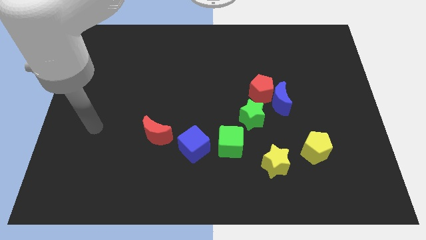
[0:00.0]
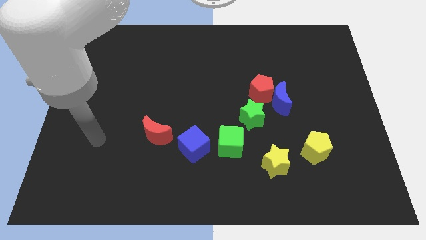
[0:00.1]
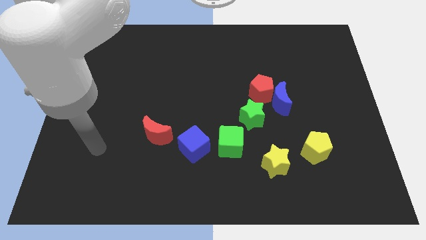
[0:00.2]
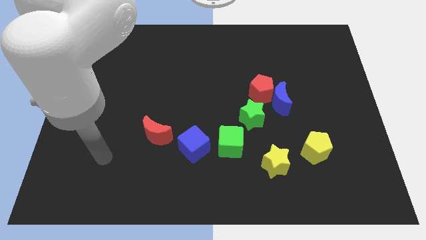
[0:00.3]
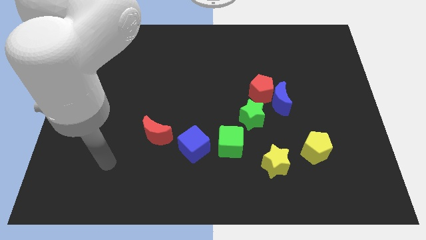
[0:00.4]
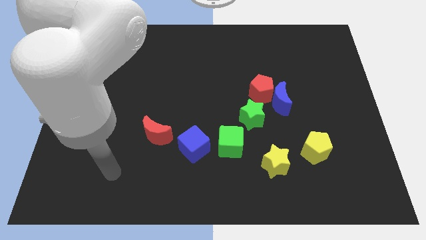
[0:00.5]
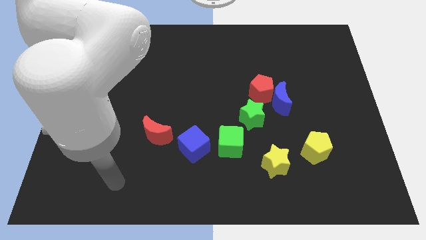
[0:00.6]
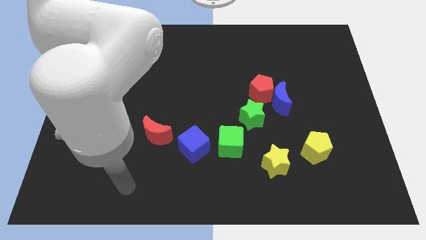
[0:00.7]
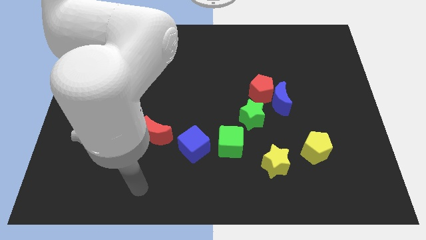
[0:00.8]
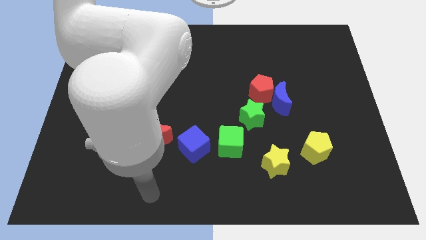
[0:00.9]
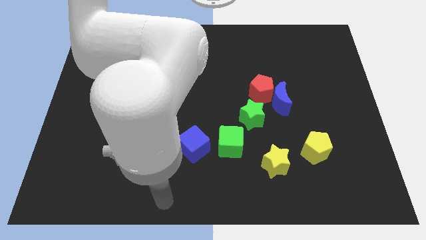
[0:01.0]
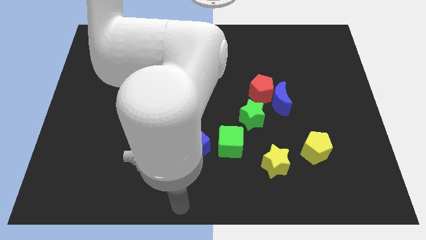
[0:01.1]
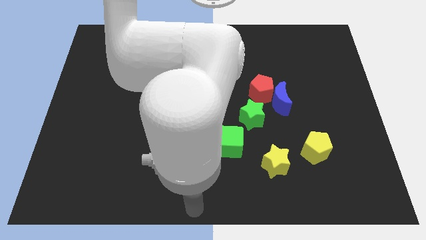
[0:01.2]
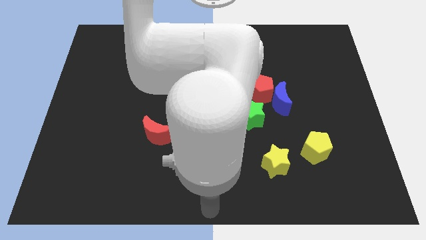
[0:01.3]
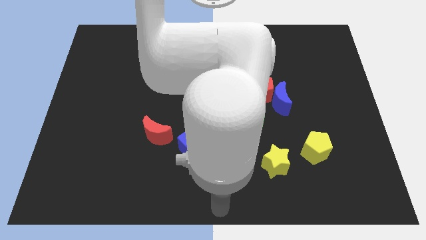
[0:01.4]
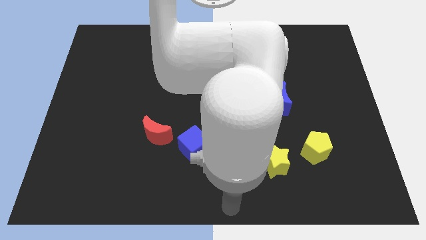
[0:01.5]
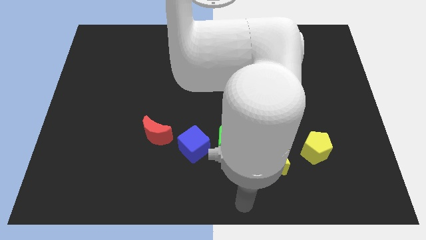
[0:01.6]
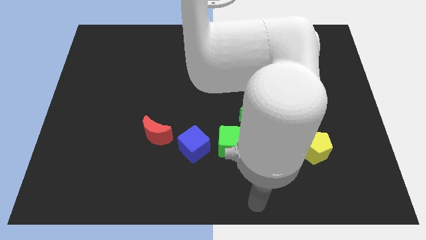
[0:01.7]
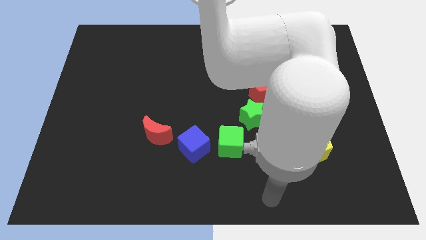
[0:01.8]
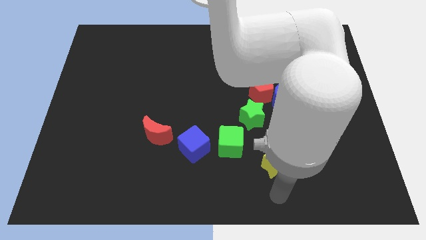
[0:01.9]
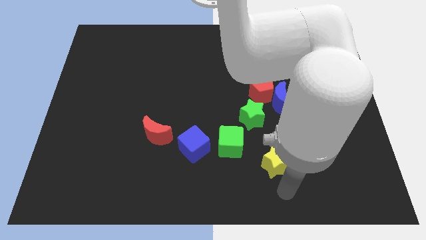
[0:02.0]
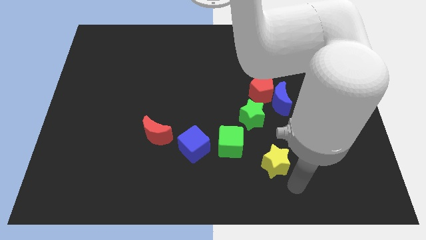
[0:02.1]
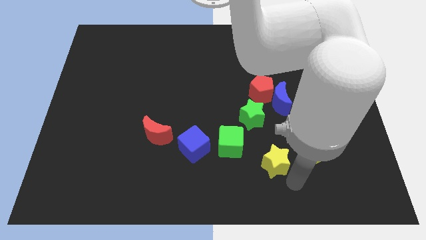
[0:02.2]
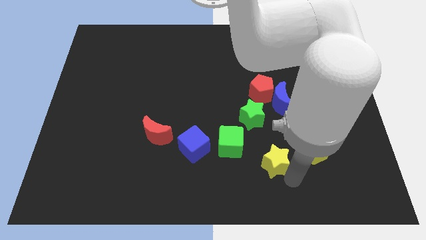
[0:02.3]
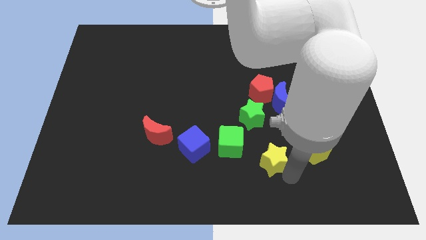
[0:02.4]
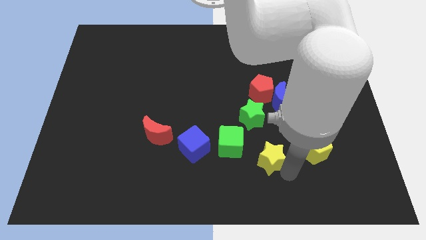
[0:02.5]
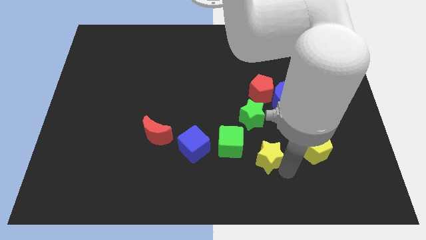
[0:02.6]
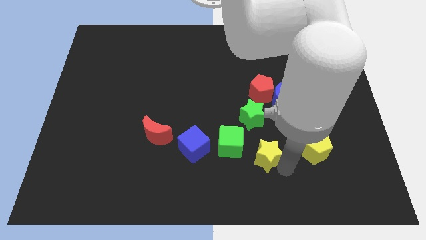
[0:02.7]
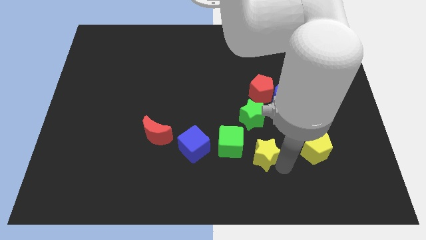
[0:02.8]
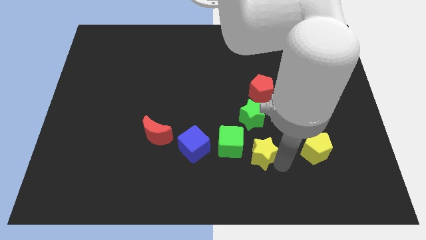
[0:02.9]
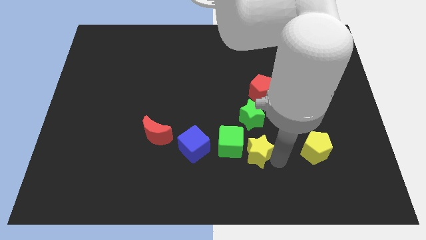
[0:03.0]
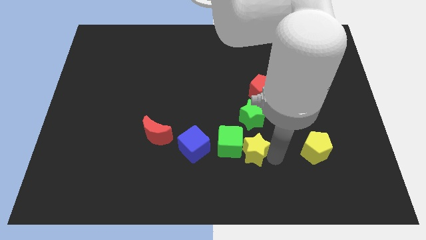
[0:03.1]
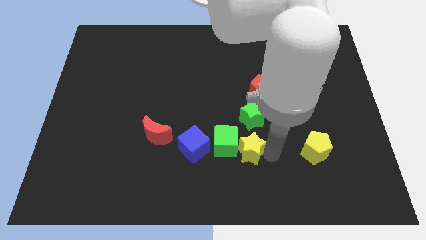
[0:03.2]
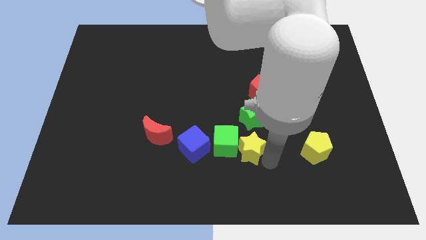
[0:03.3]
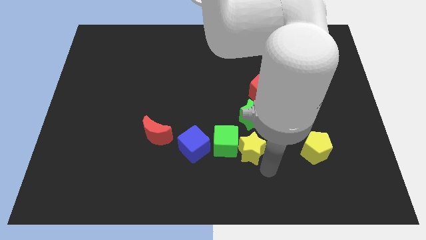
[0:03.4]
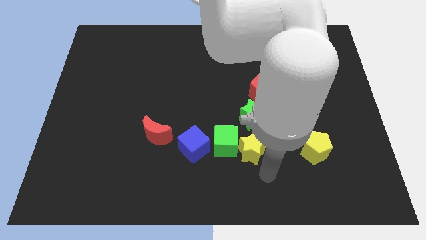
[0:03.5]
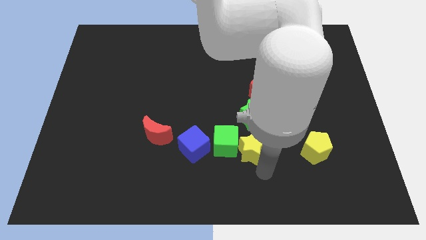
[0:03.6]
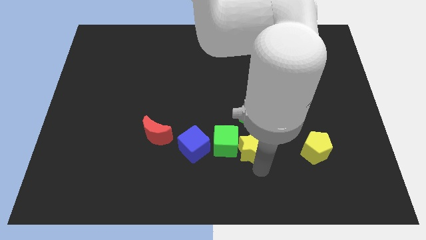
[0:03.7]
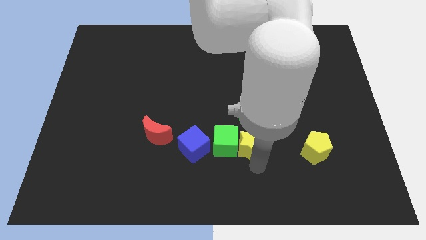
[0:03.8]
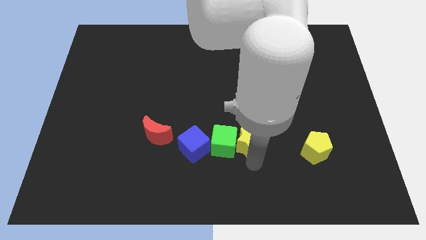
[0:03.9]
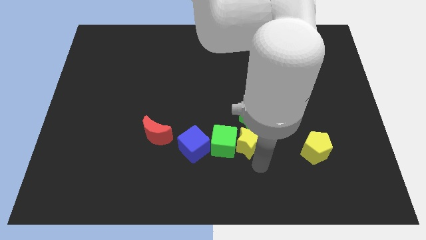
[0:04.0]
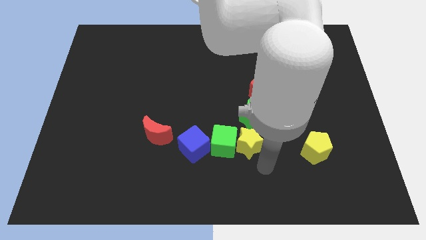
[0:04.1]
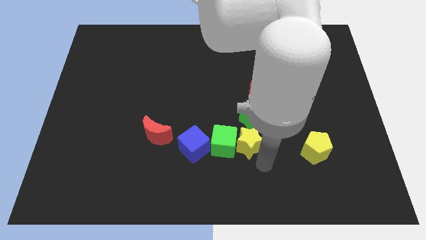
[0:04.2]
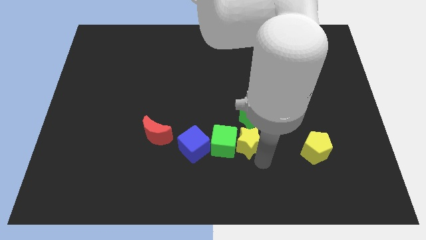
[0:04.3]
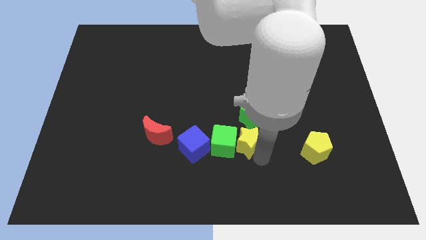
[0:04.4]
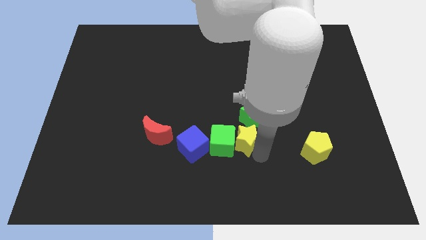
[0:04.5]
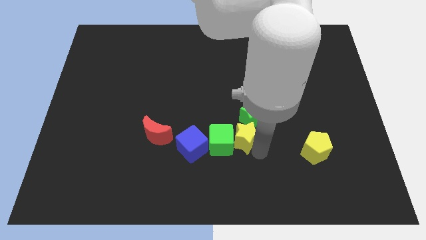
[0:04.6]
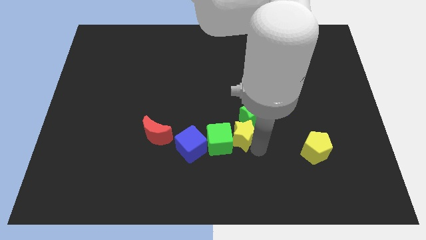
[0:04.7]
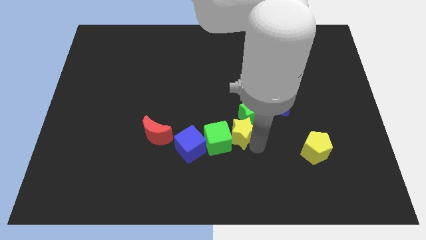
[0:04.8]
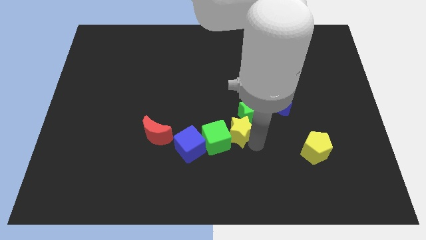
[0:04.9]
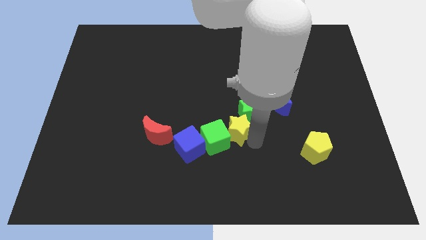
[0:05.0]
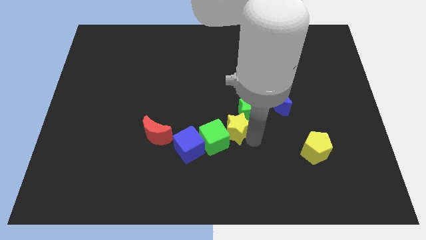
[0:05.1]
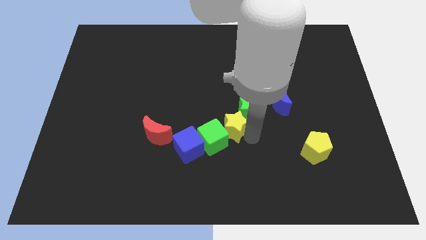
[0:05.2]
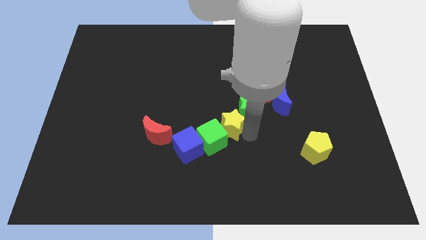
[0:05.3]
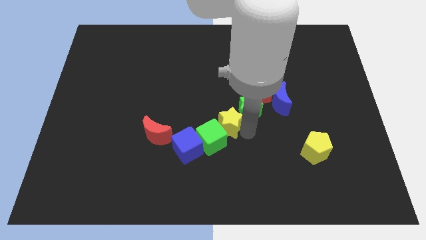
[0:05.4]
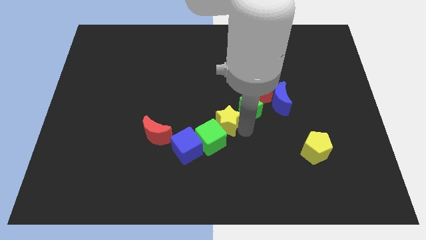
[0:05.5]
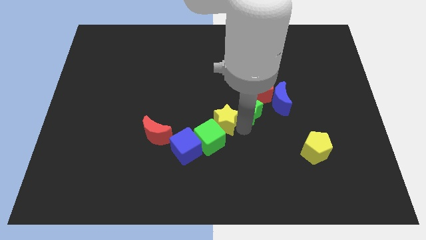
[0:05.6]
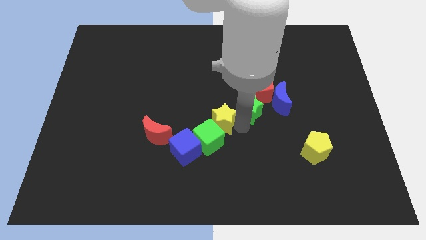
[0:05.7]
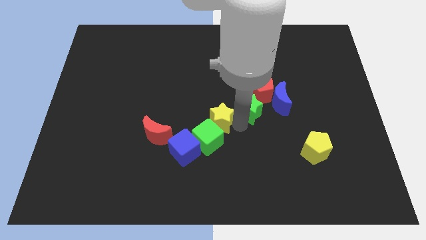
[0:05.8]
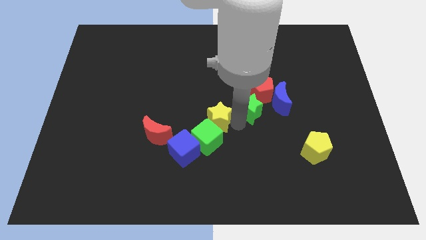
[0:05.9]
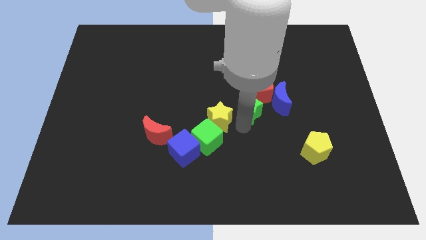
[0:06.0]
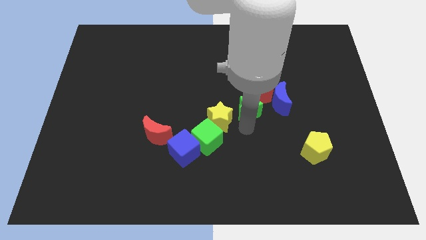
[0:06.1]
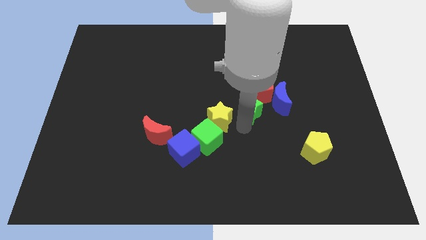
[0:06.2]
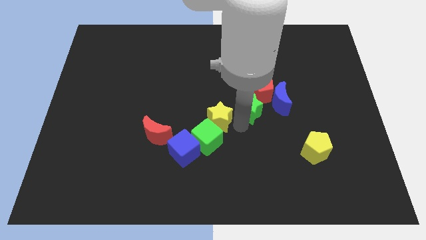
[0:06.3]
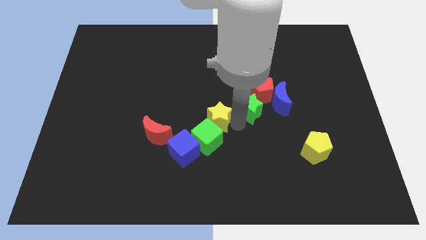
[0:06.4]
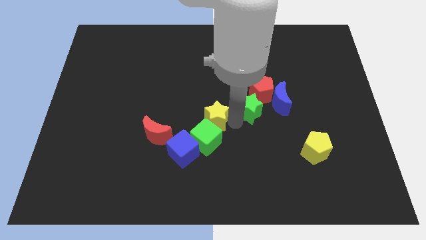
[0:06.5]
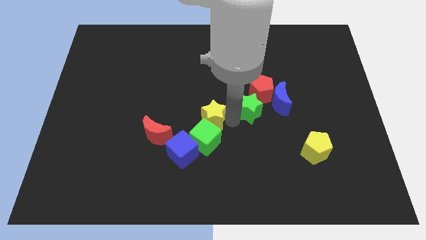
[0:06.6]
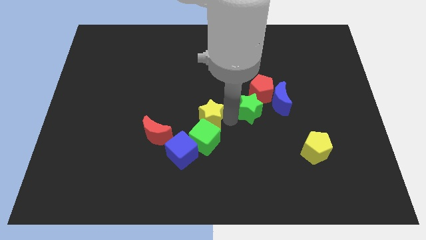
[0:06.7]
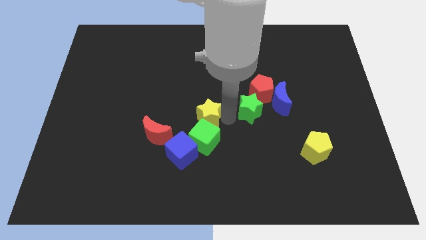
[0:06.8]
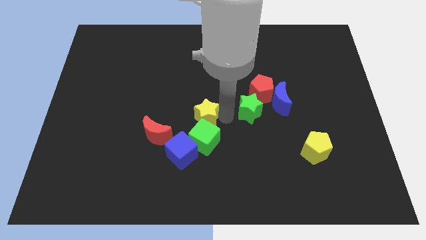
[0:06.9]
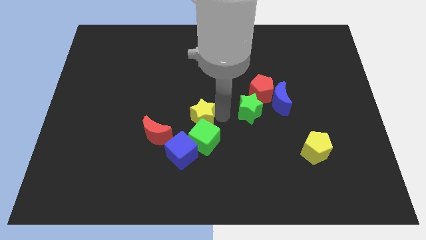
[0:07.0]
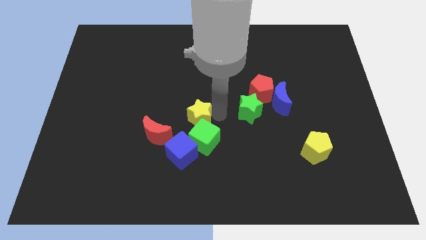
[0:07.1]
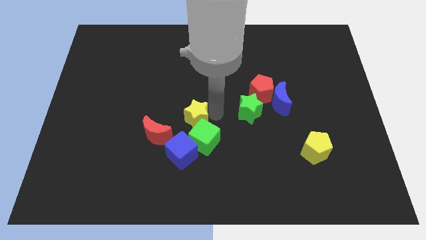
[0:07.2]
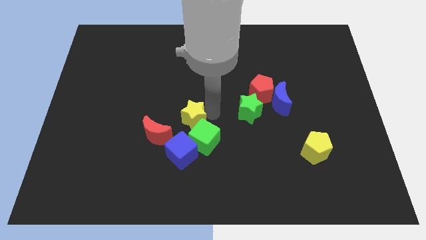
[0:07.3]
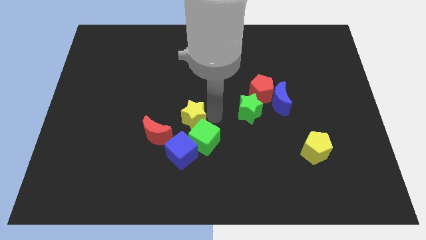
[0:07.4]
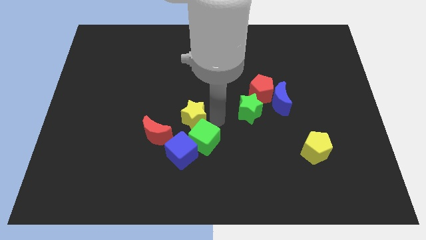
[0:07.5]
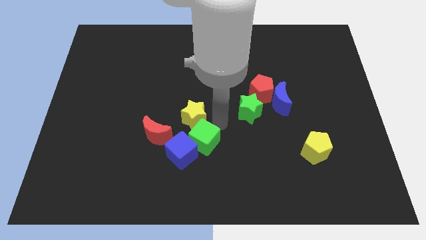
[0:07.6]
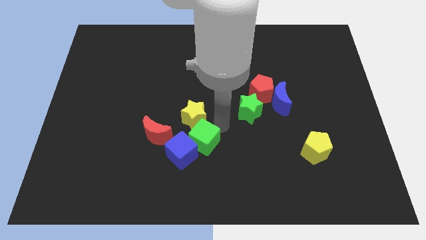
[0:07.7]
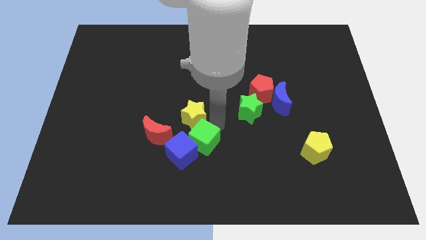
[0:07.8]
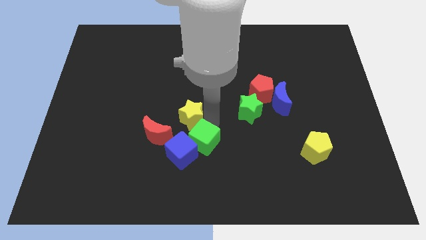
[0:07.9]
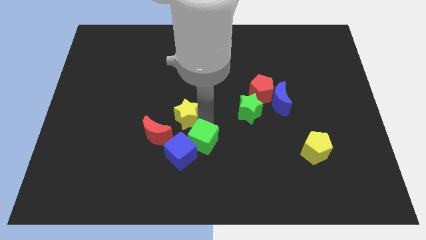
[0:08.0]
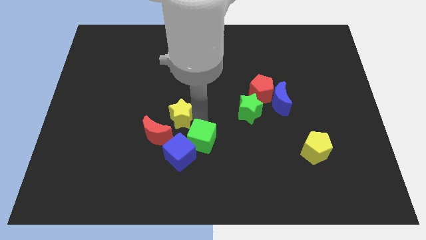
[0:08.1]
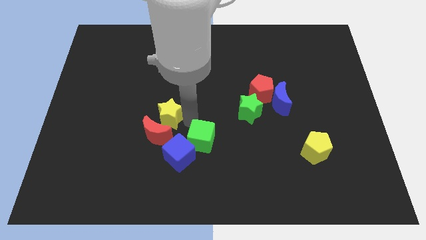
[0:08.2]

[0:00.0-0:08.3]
push the yellow star to the top of the red moon
